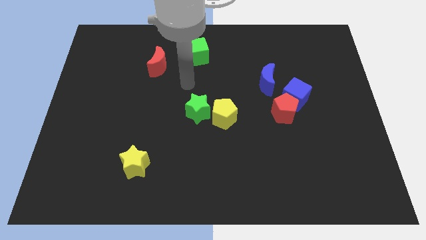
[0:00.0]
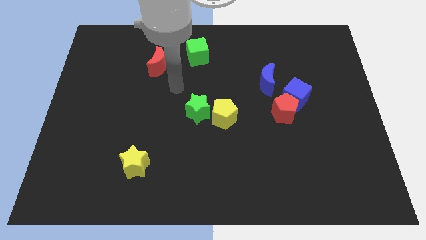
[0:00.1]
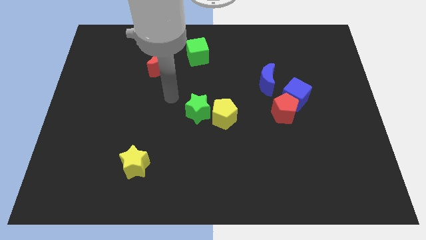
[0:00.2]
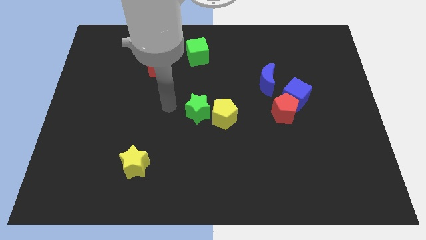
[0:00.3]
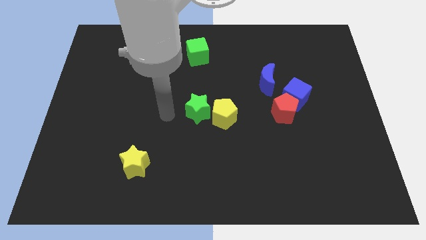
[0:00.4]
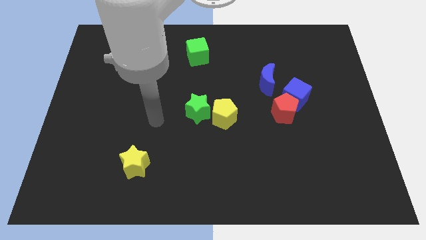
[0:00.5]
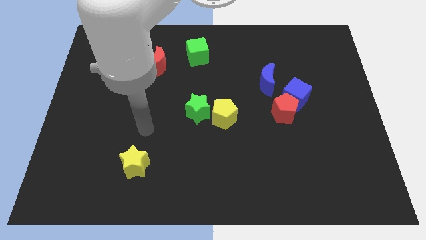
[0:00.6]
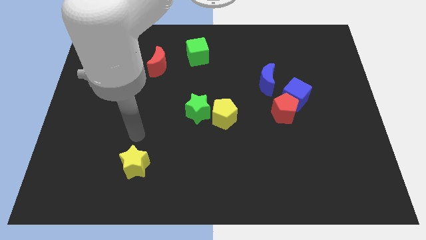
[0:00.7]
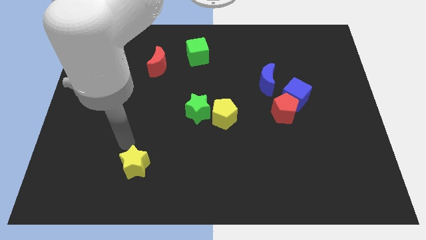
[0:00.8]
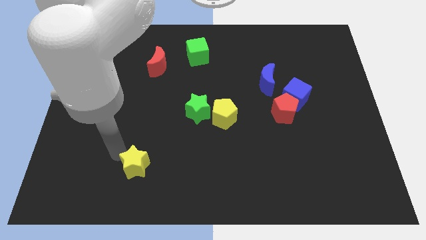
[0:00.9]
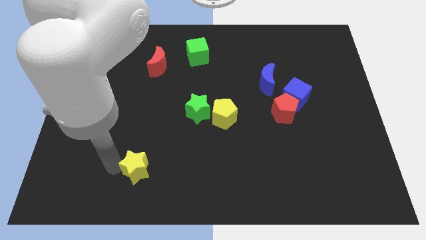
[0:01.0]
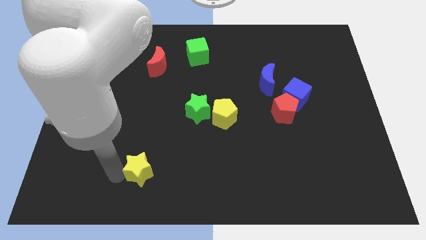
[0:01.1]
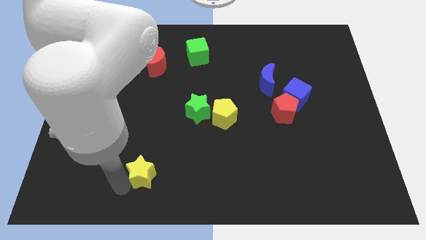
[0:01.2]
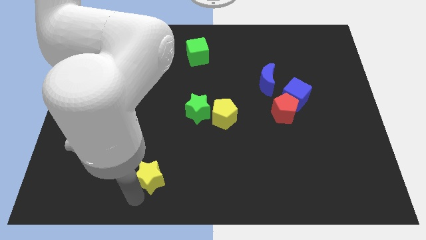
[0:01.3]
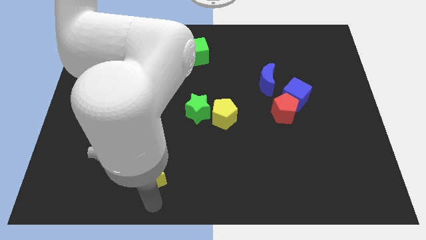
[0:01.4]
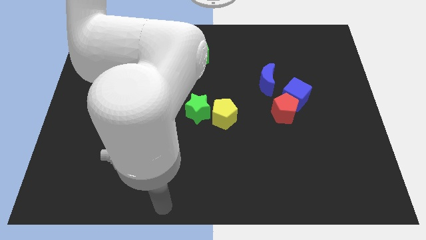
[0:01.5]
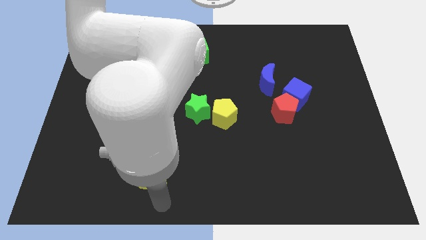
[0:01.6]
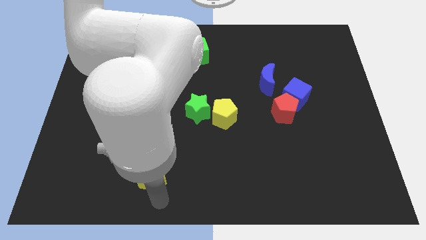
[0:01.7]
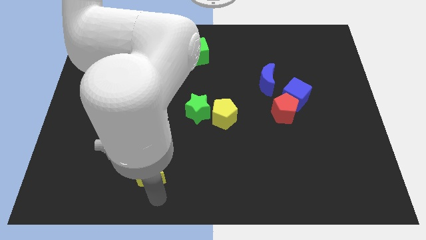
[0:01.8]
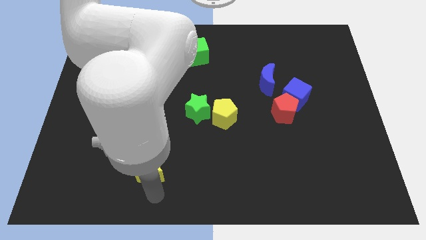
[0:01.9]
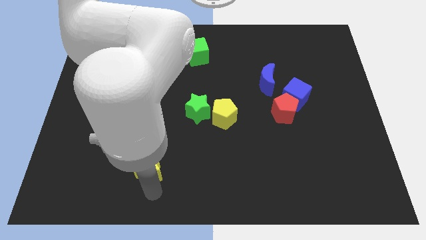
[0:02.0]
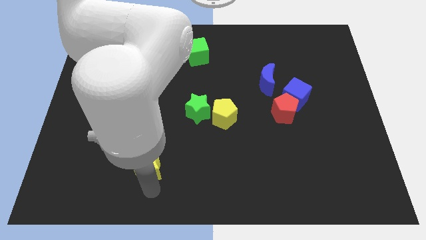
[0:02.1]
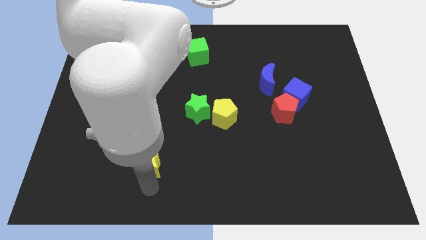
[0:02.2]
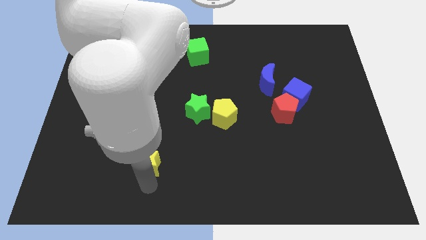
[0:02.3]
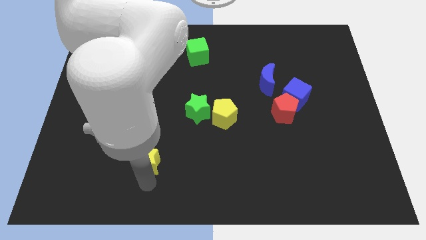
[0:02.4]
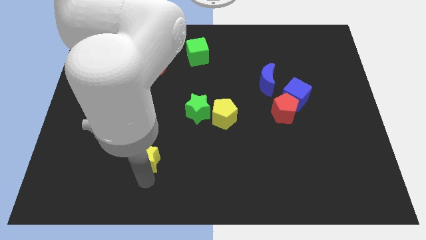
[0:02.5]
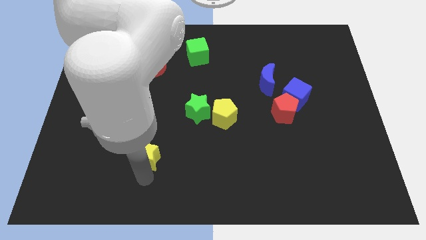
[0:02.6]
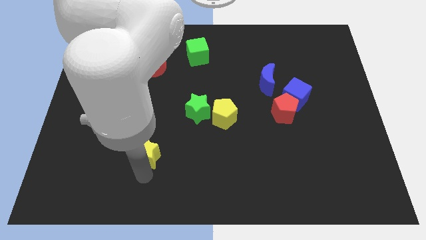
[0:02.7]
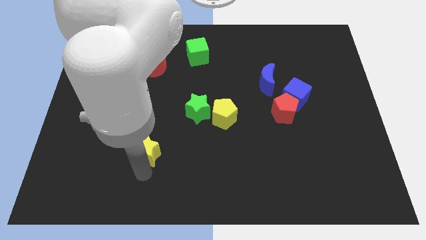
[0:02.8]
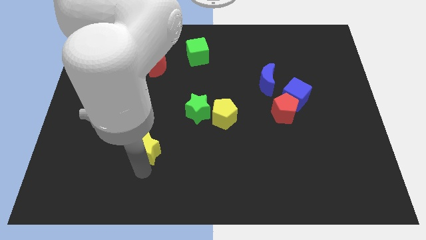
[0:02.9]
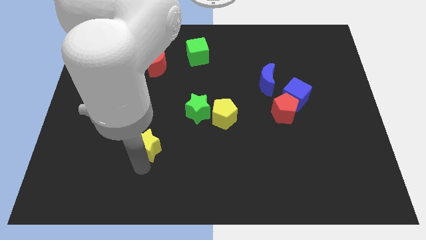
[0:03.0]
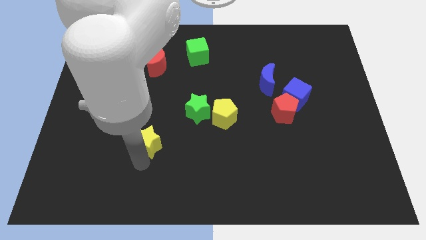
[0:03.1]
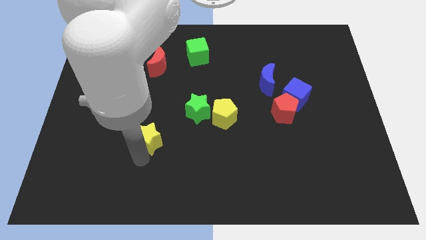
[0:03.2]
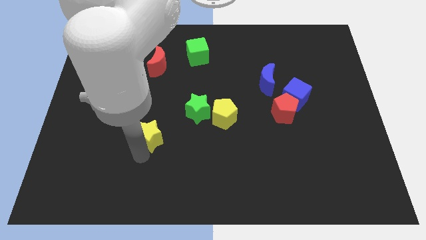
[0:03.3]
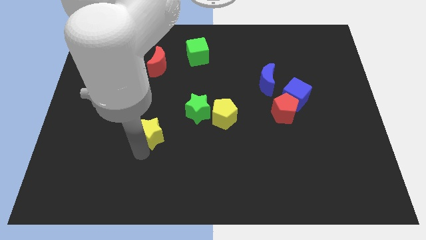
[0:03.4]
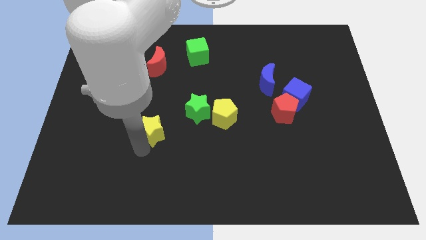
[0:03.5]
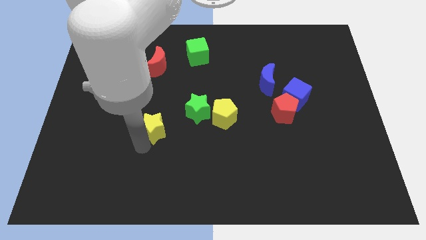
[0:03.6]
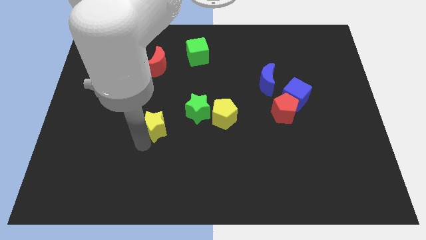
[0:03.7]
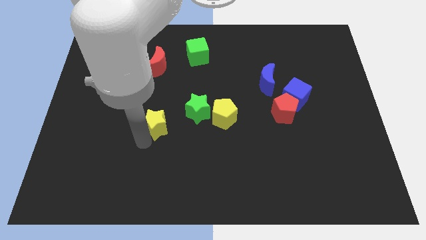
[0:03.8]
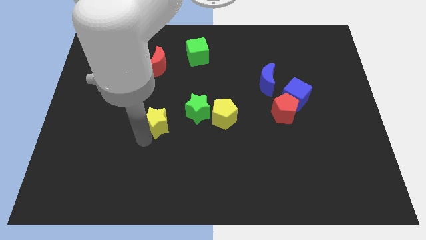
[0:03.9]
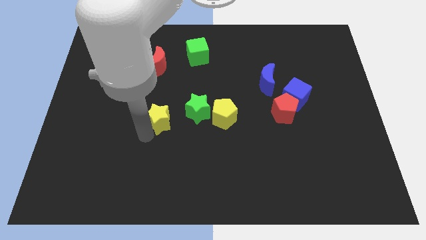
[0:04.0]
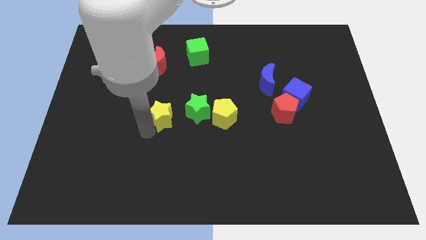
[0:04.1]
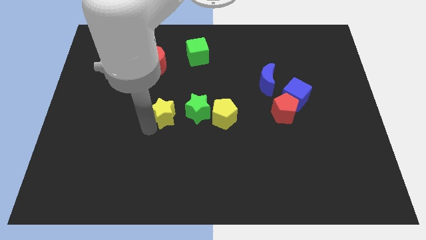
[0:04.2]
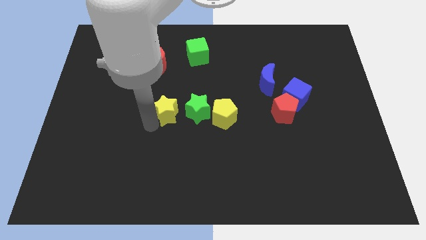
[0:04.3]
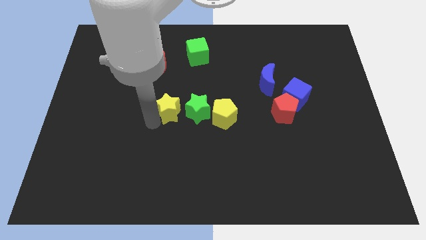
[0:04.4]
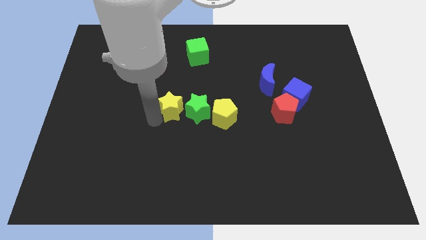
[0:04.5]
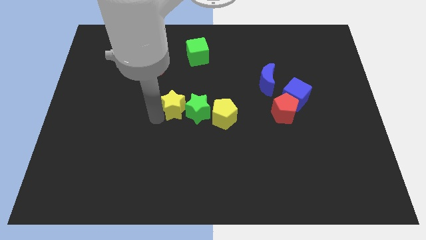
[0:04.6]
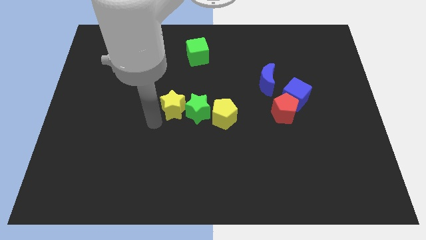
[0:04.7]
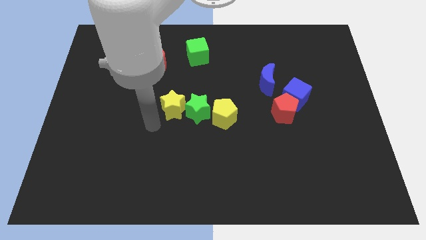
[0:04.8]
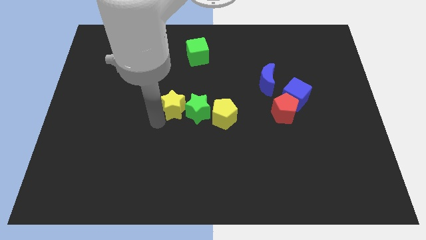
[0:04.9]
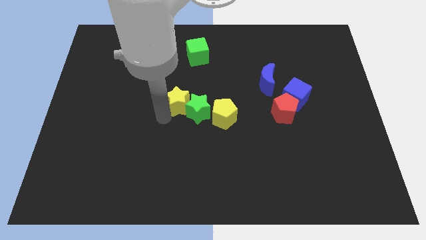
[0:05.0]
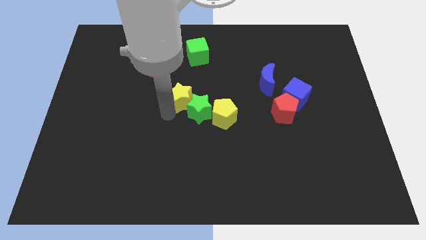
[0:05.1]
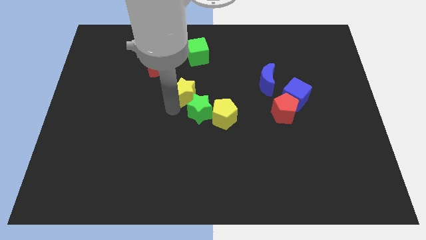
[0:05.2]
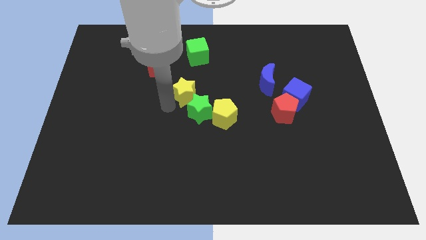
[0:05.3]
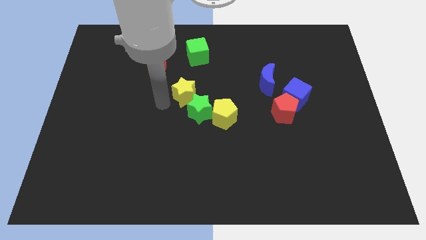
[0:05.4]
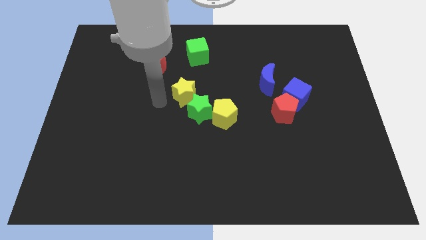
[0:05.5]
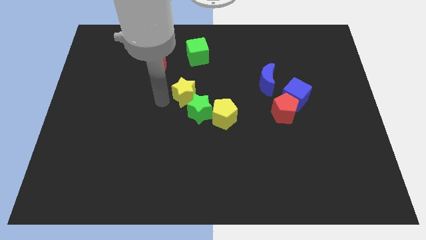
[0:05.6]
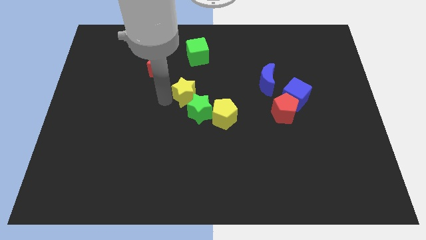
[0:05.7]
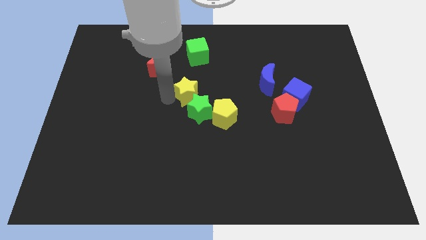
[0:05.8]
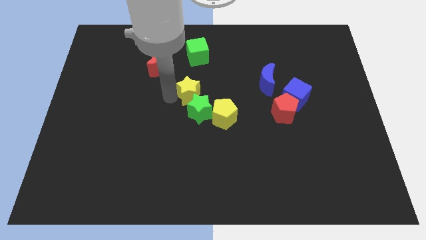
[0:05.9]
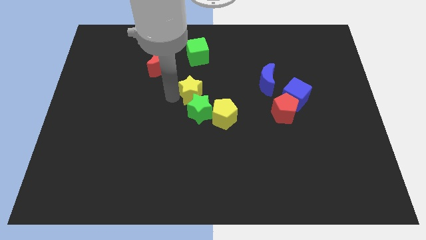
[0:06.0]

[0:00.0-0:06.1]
move the yellow star up and then to the right

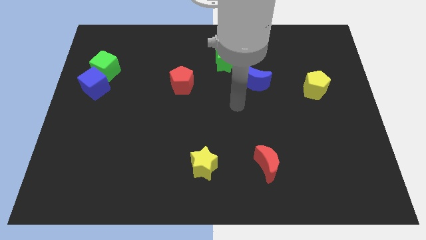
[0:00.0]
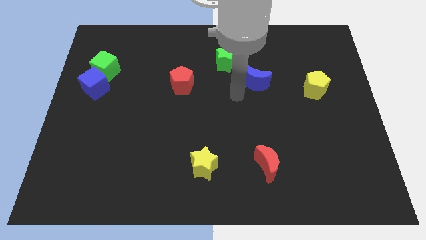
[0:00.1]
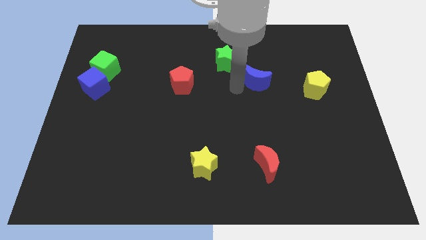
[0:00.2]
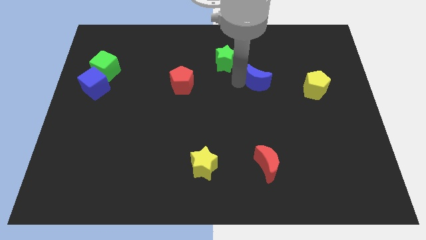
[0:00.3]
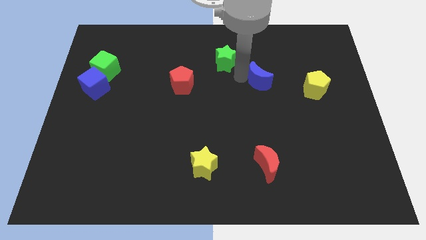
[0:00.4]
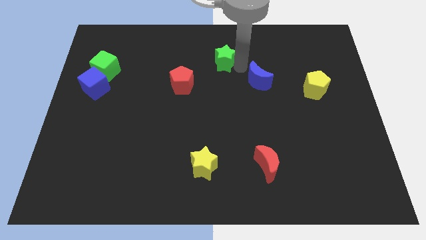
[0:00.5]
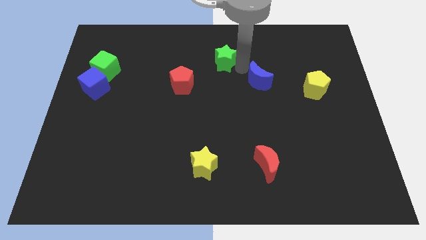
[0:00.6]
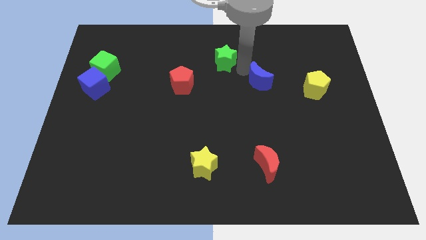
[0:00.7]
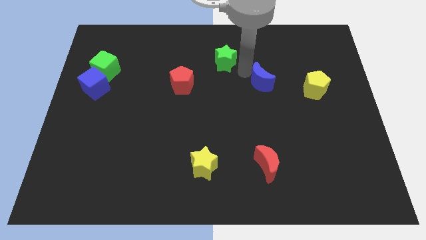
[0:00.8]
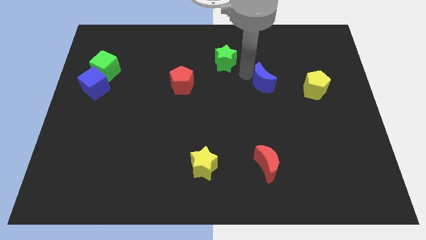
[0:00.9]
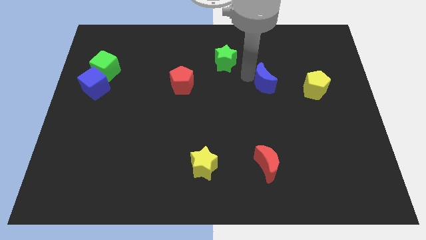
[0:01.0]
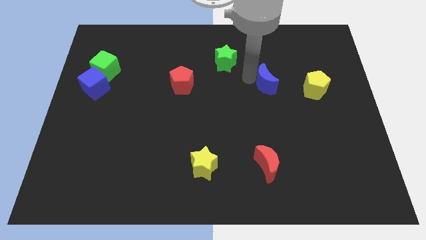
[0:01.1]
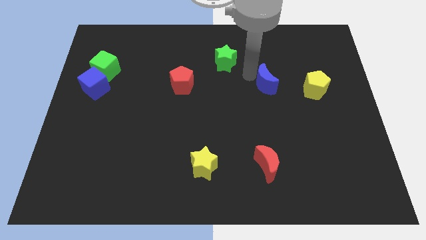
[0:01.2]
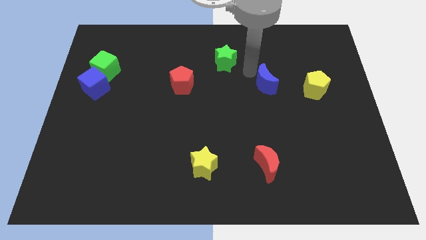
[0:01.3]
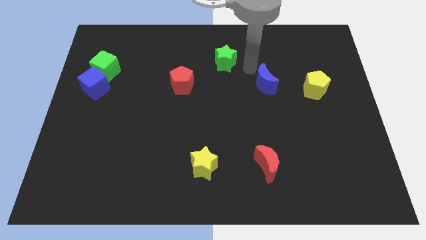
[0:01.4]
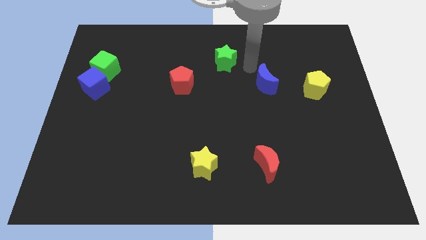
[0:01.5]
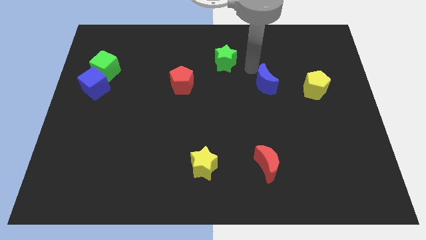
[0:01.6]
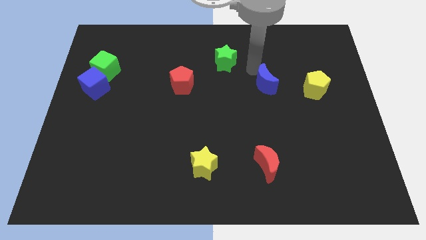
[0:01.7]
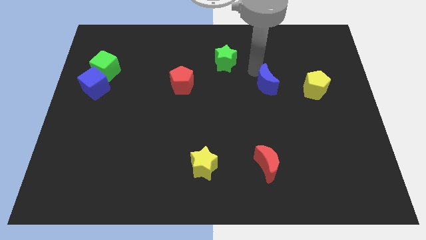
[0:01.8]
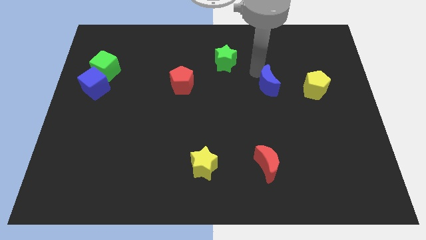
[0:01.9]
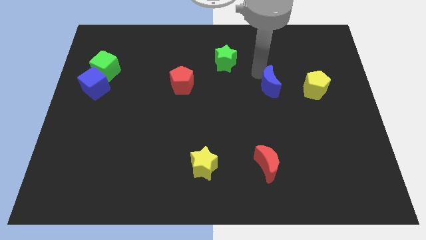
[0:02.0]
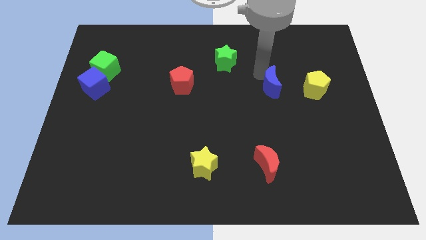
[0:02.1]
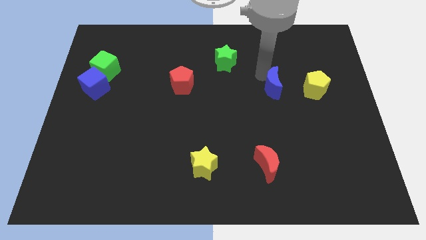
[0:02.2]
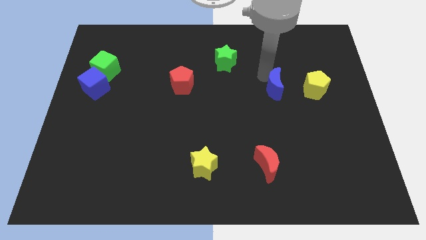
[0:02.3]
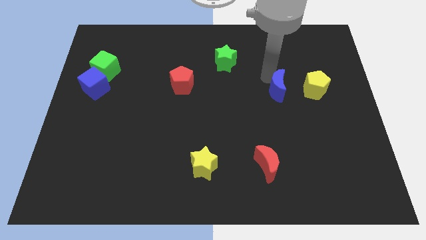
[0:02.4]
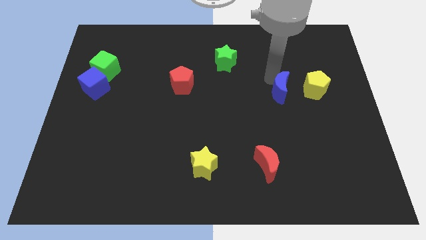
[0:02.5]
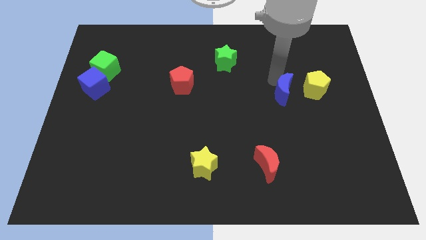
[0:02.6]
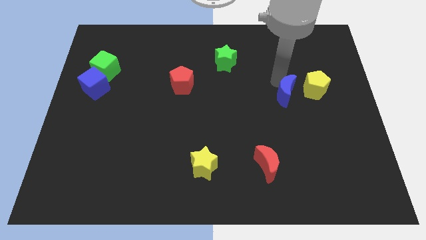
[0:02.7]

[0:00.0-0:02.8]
slightly slide the blue moon diagonally down and to the right
